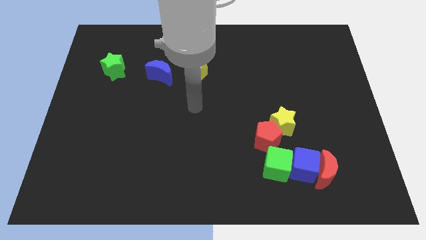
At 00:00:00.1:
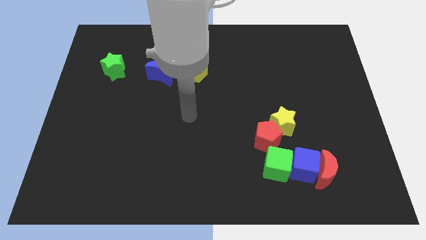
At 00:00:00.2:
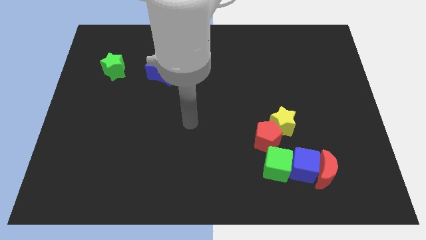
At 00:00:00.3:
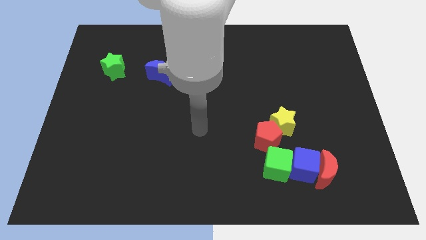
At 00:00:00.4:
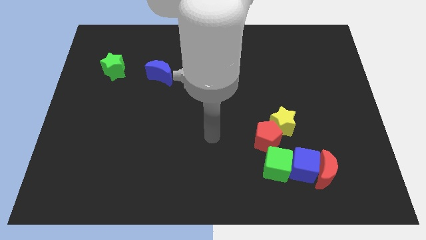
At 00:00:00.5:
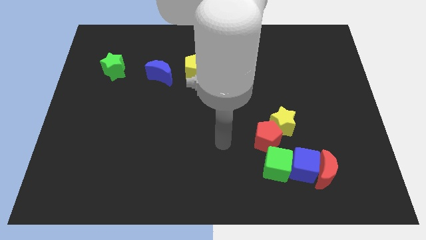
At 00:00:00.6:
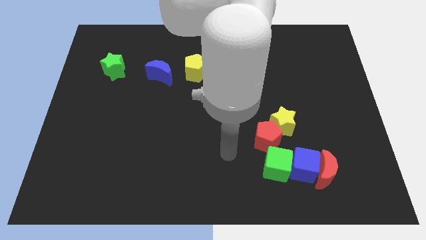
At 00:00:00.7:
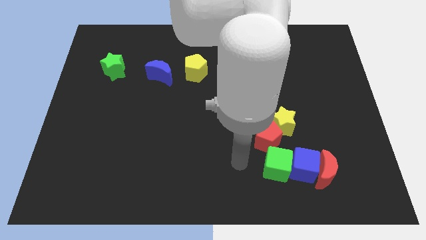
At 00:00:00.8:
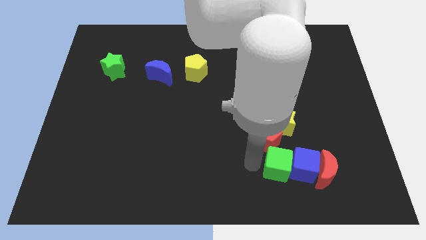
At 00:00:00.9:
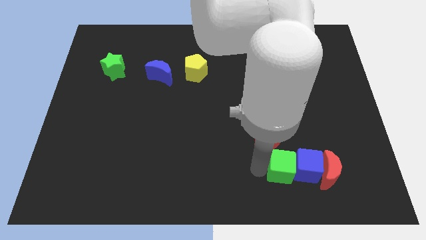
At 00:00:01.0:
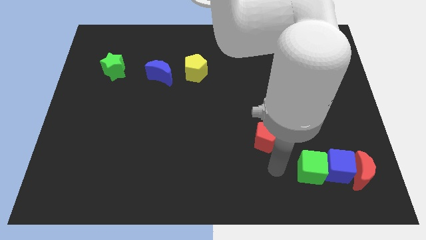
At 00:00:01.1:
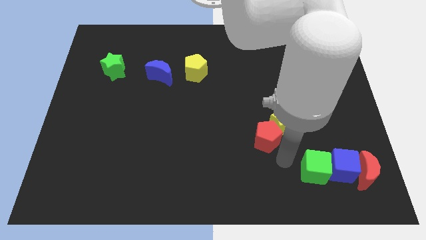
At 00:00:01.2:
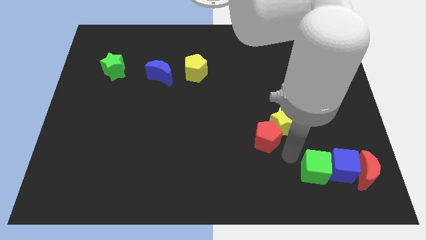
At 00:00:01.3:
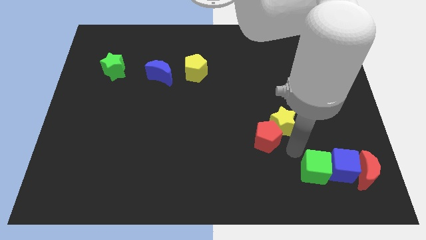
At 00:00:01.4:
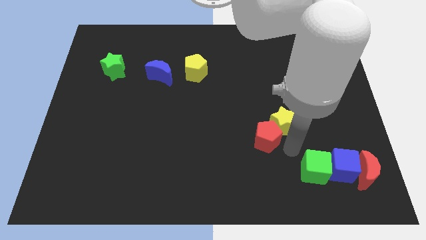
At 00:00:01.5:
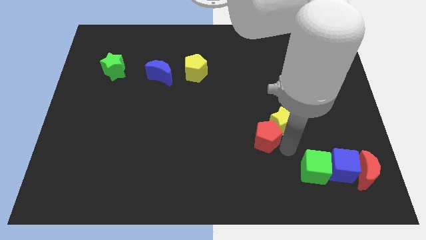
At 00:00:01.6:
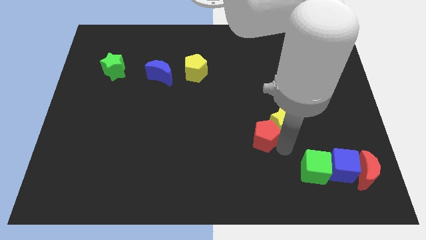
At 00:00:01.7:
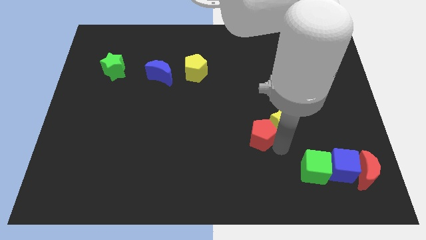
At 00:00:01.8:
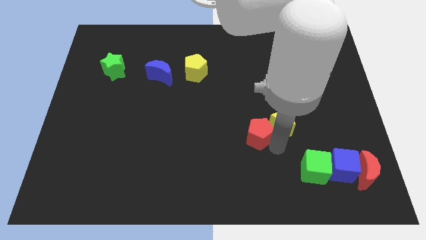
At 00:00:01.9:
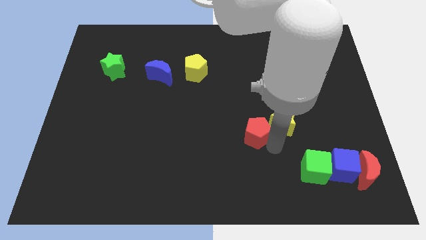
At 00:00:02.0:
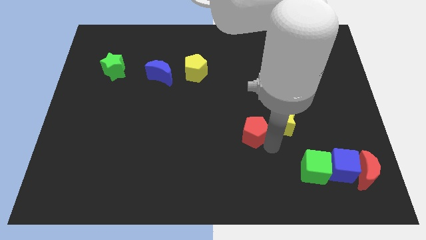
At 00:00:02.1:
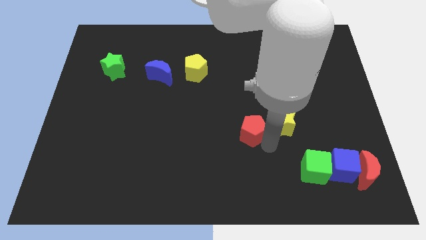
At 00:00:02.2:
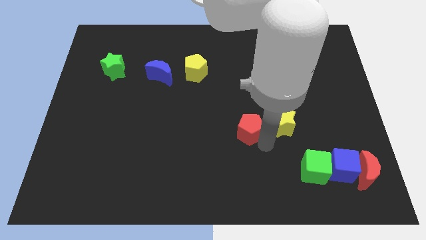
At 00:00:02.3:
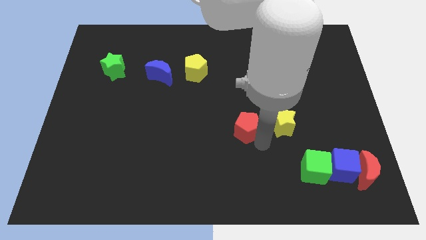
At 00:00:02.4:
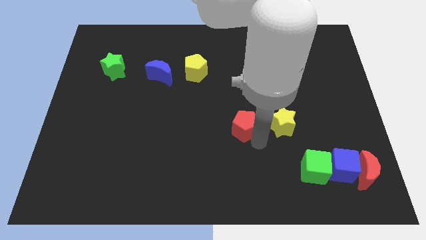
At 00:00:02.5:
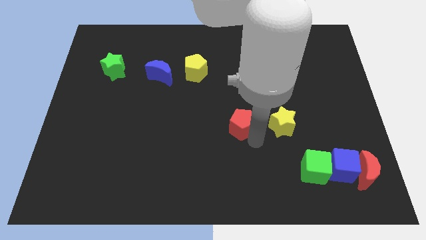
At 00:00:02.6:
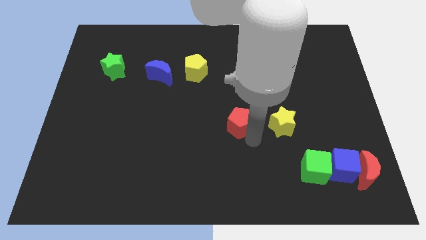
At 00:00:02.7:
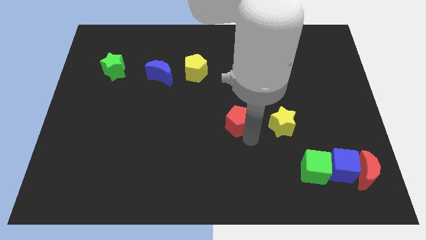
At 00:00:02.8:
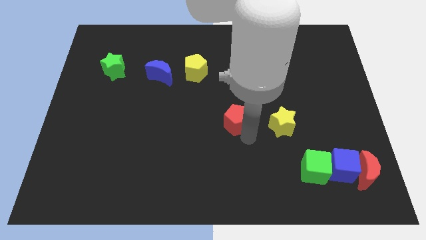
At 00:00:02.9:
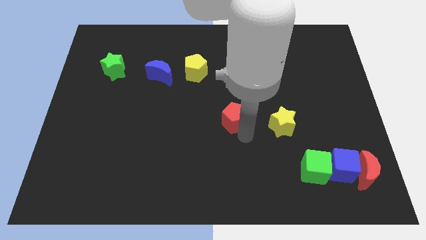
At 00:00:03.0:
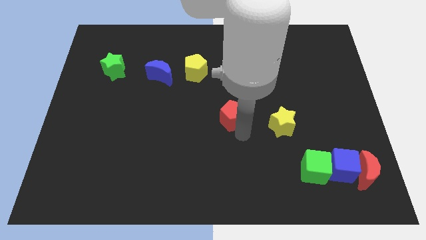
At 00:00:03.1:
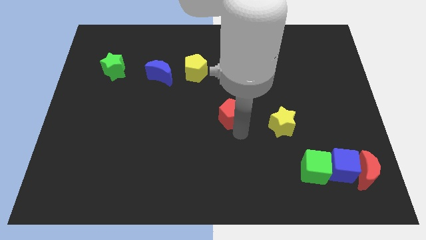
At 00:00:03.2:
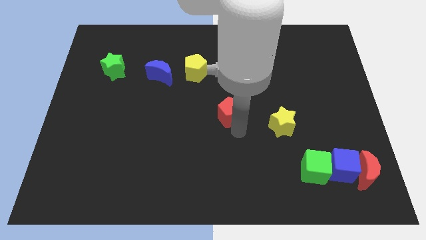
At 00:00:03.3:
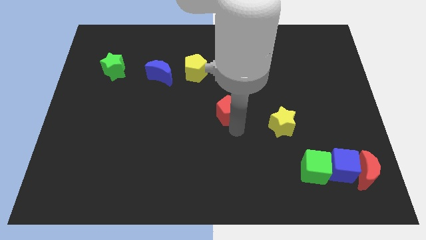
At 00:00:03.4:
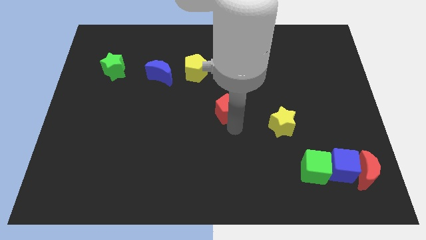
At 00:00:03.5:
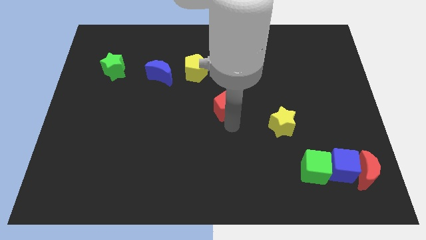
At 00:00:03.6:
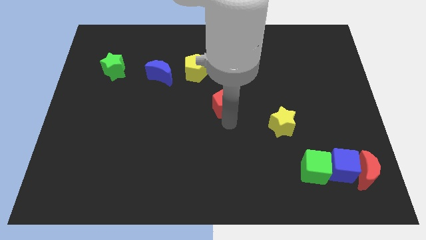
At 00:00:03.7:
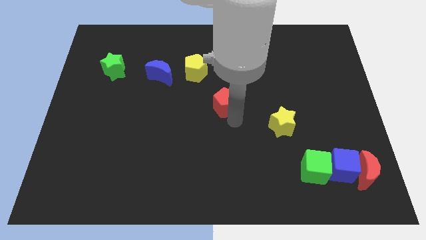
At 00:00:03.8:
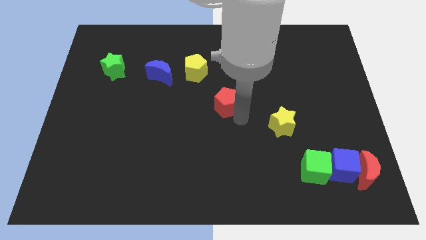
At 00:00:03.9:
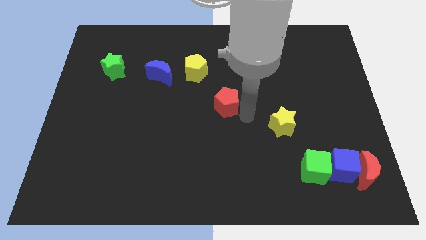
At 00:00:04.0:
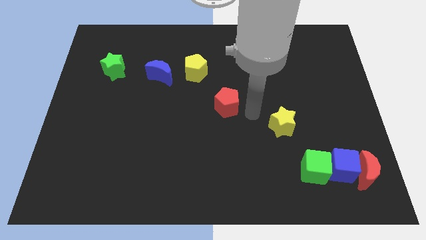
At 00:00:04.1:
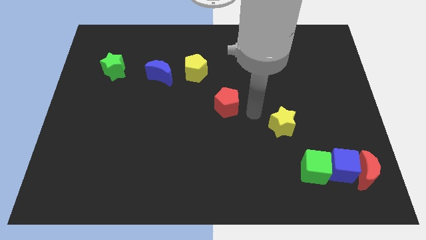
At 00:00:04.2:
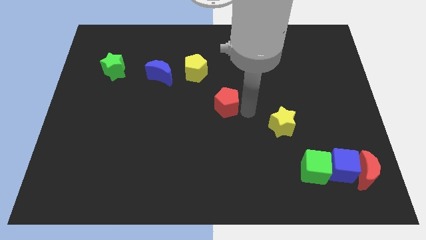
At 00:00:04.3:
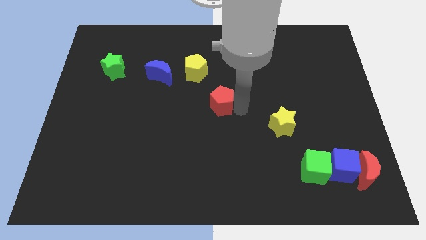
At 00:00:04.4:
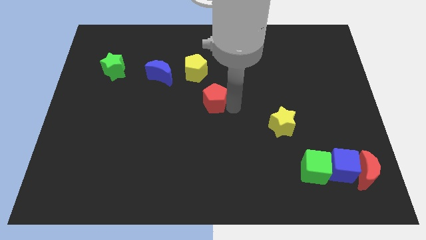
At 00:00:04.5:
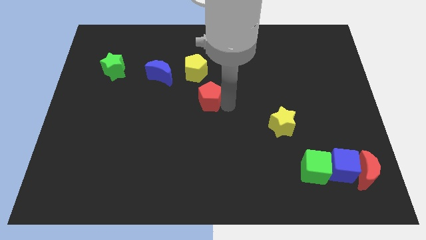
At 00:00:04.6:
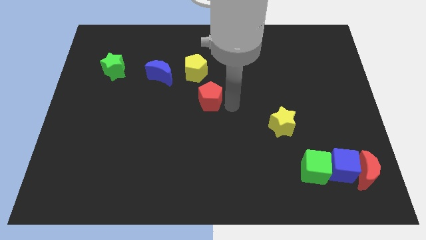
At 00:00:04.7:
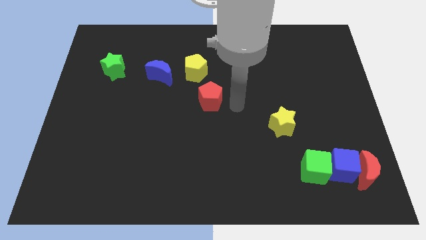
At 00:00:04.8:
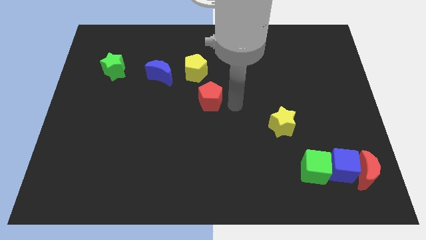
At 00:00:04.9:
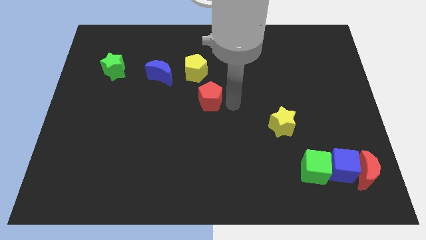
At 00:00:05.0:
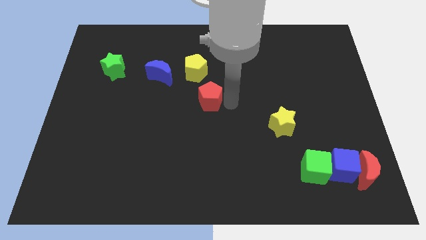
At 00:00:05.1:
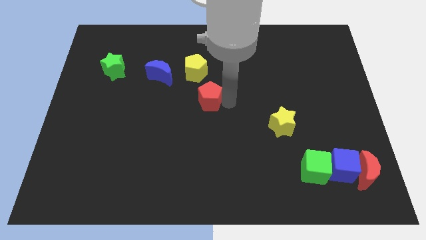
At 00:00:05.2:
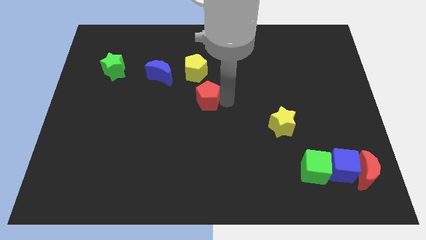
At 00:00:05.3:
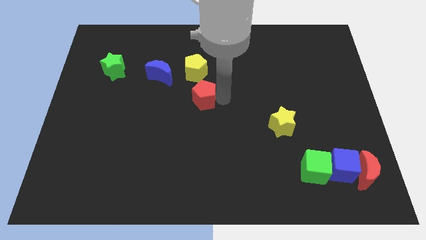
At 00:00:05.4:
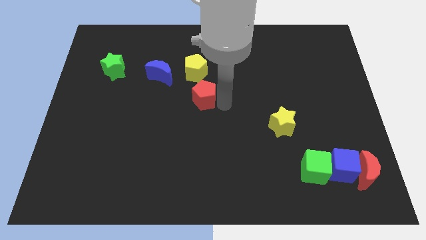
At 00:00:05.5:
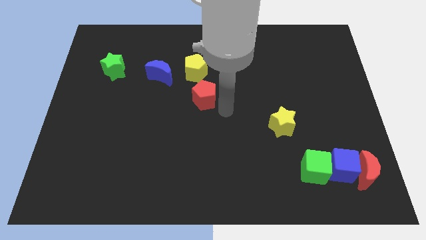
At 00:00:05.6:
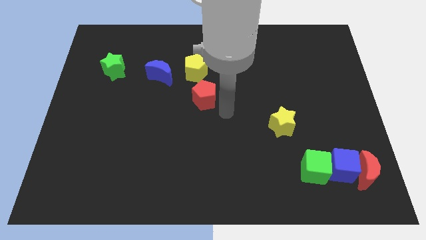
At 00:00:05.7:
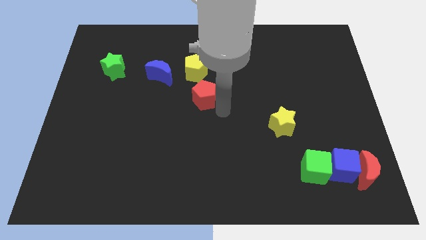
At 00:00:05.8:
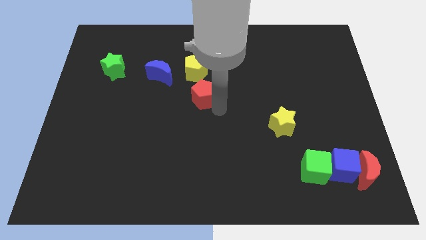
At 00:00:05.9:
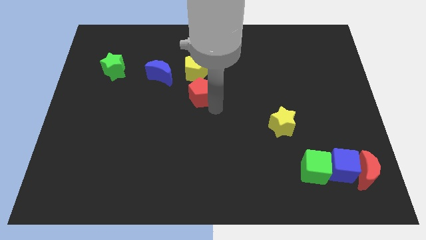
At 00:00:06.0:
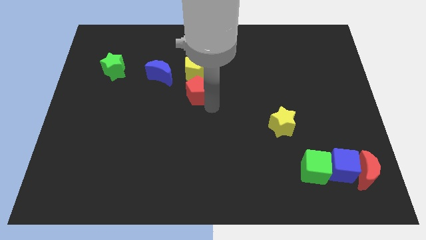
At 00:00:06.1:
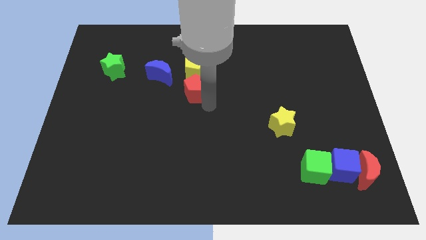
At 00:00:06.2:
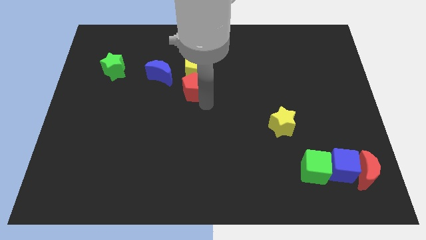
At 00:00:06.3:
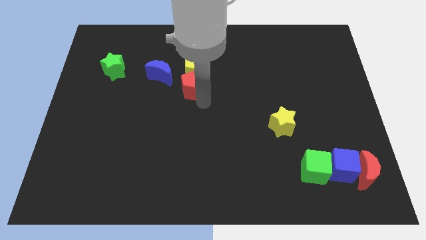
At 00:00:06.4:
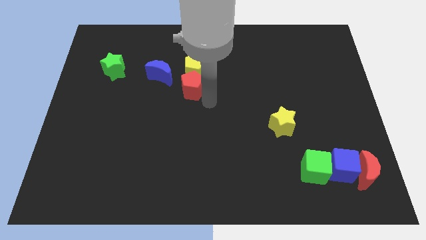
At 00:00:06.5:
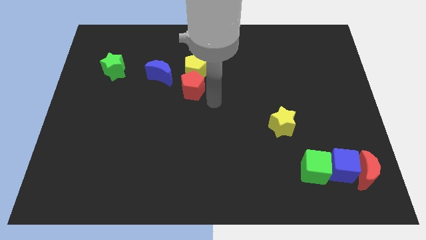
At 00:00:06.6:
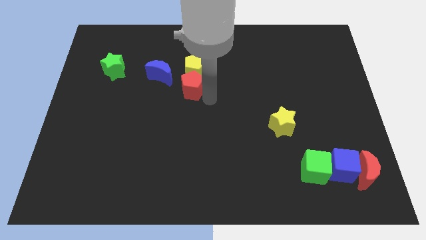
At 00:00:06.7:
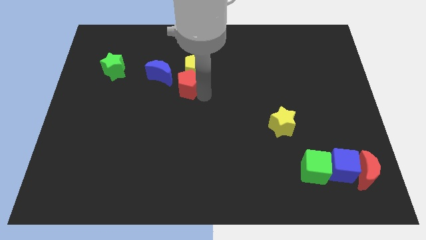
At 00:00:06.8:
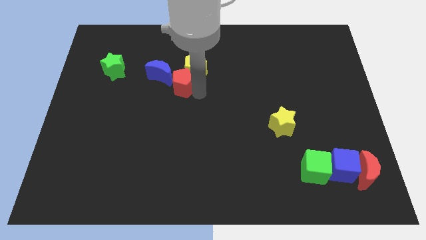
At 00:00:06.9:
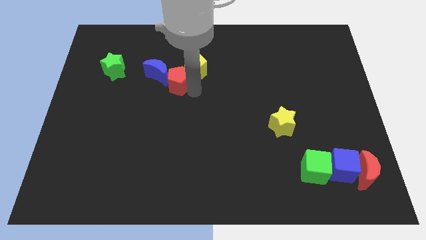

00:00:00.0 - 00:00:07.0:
push the red pentagon to the blue moon
